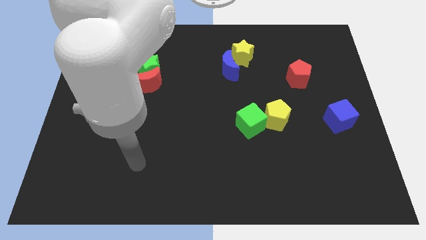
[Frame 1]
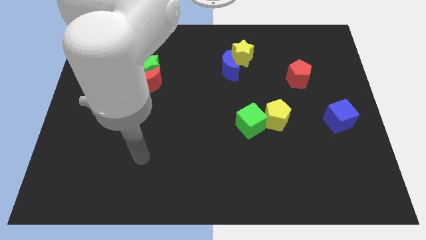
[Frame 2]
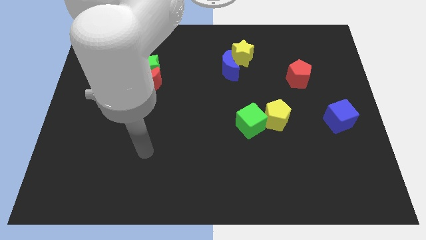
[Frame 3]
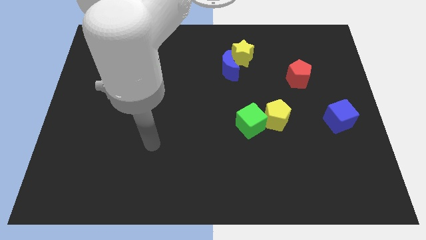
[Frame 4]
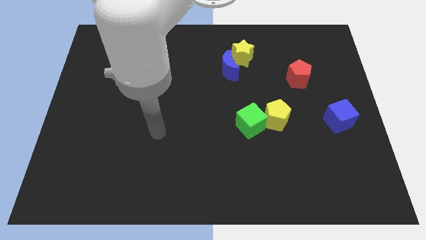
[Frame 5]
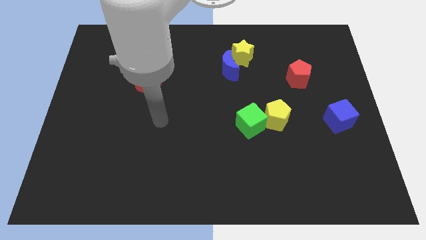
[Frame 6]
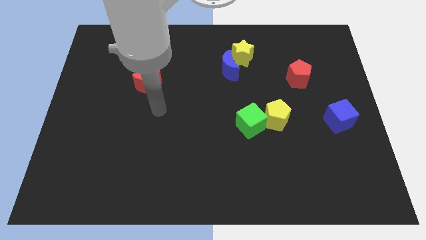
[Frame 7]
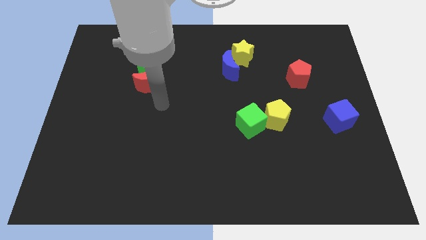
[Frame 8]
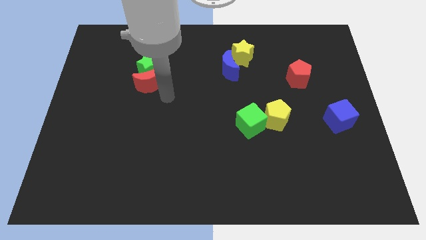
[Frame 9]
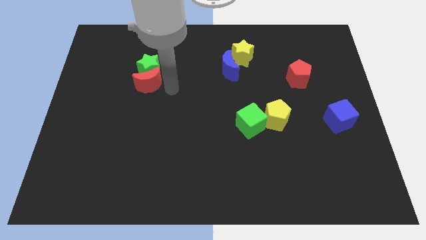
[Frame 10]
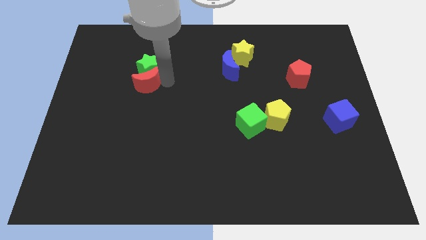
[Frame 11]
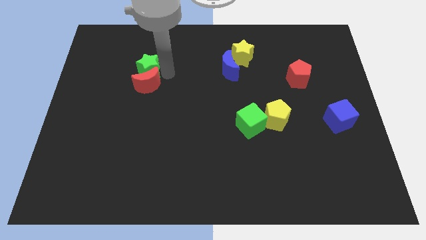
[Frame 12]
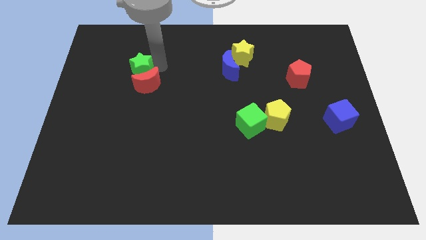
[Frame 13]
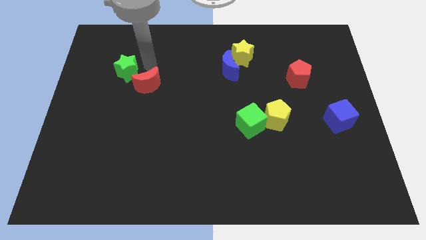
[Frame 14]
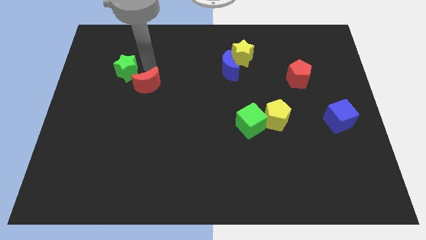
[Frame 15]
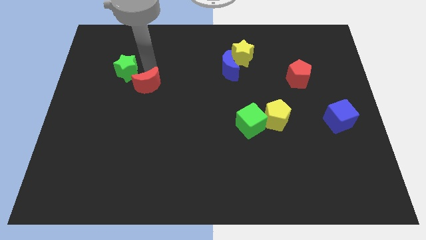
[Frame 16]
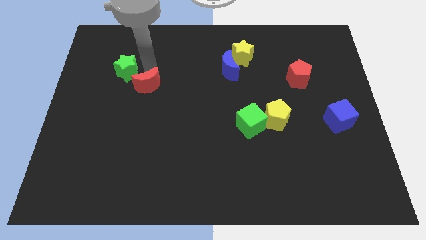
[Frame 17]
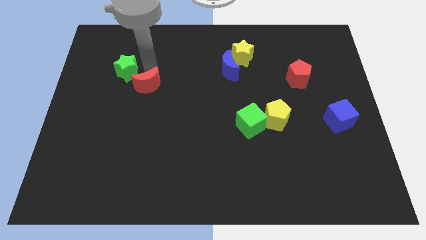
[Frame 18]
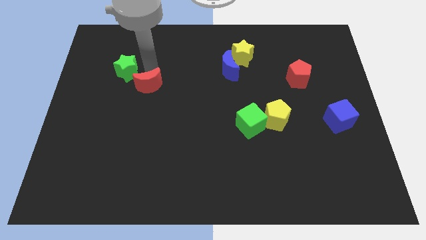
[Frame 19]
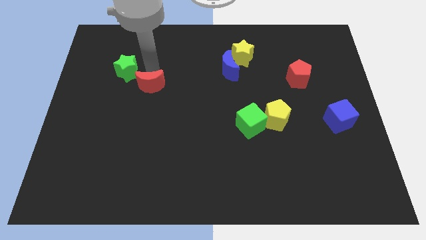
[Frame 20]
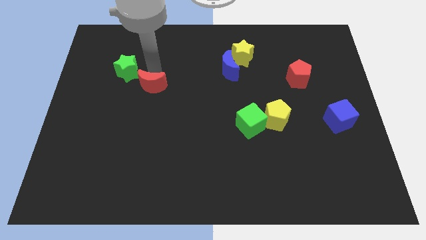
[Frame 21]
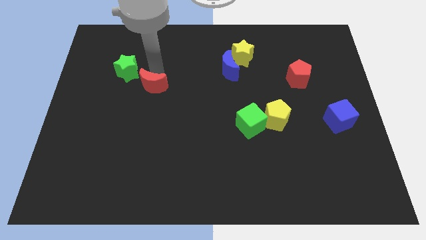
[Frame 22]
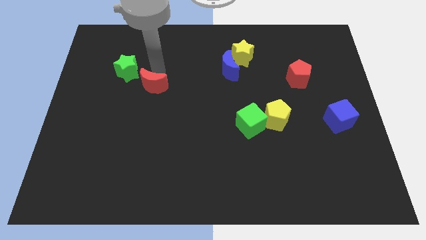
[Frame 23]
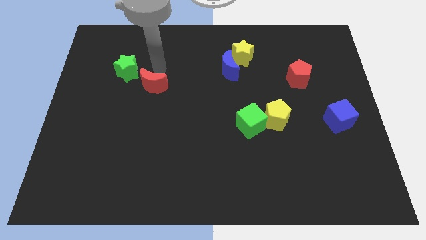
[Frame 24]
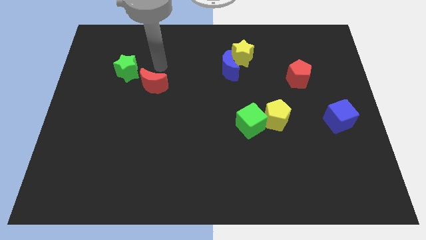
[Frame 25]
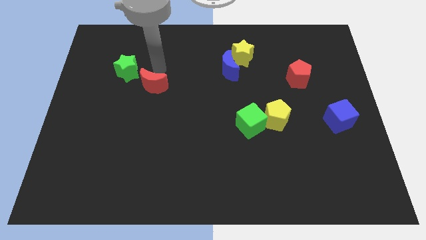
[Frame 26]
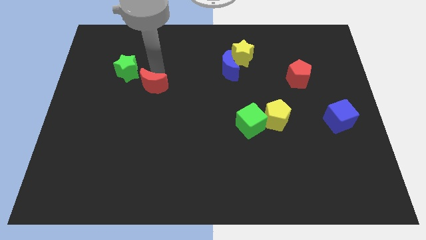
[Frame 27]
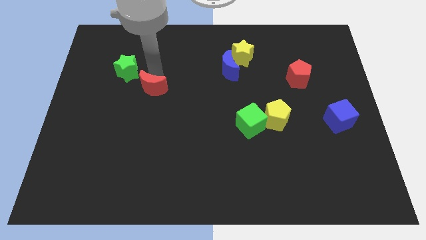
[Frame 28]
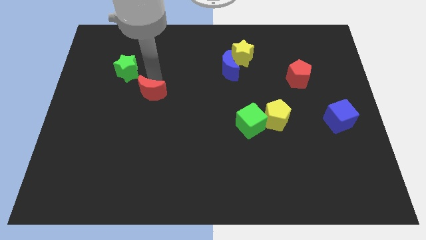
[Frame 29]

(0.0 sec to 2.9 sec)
pull the red moon apart from the green star

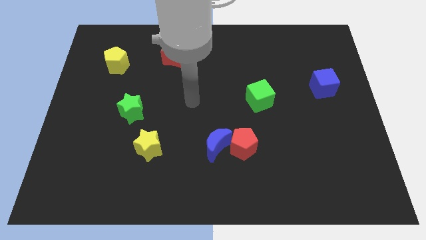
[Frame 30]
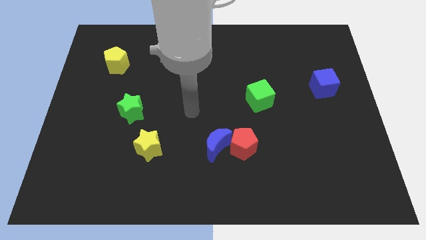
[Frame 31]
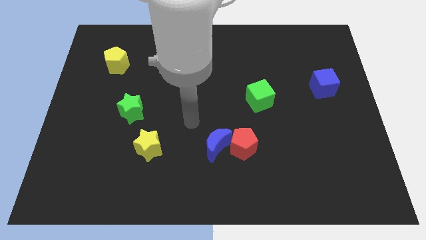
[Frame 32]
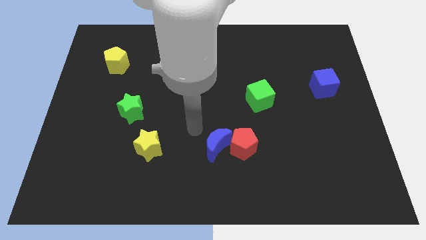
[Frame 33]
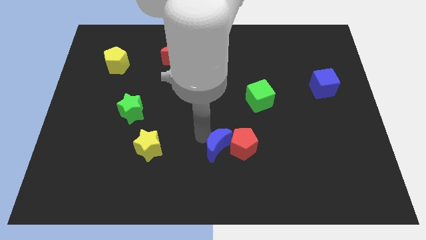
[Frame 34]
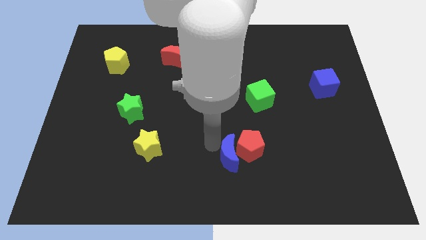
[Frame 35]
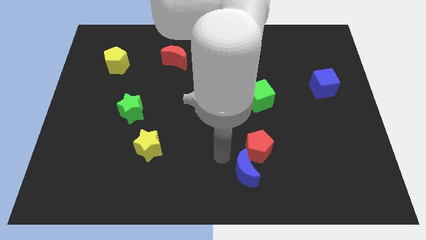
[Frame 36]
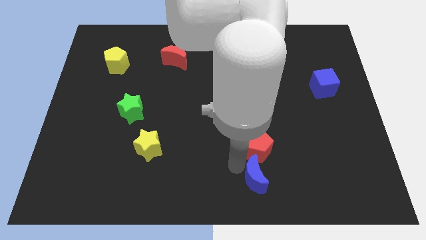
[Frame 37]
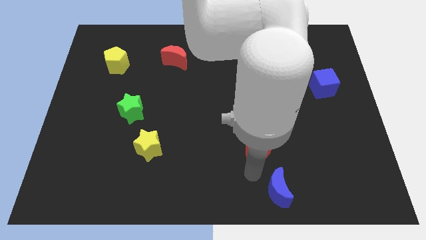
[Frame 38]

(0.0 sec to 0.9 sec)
pull the red pentagon apart from the blue moon

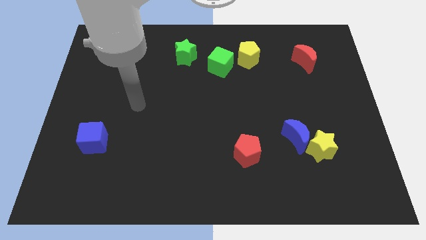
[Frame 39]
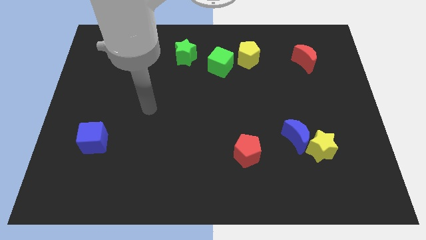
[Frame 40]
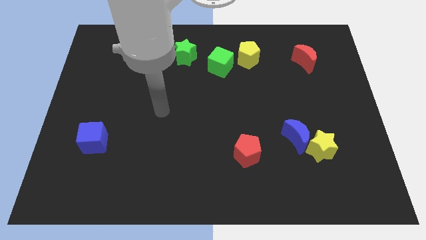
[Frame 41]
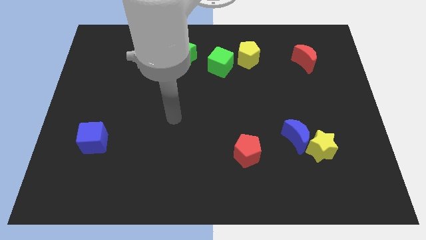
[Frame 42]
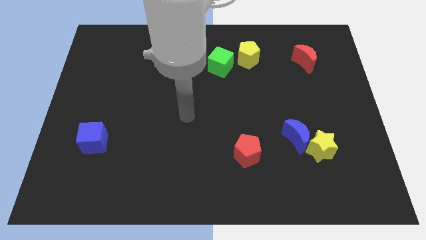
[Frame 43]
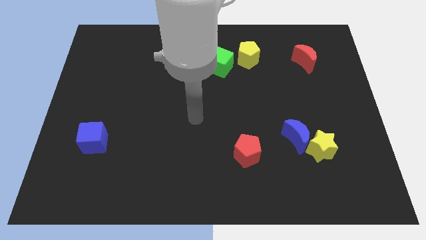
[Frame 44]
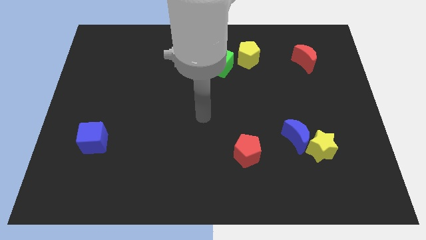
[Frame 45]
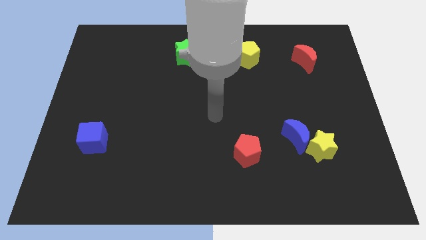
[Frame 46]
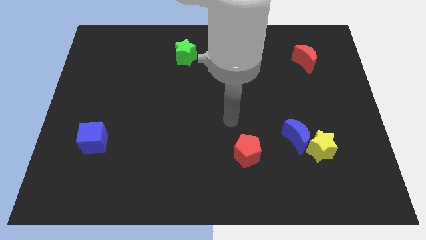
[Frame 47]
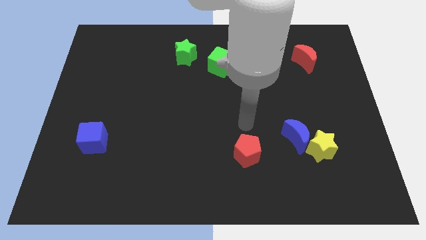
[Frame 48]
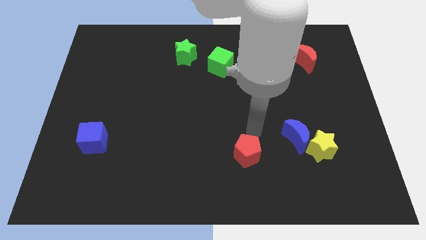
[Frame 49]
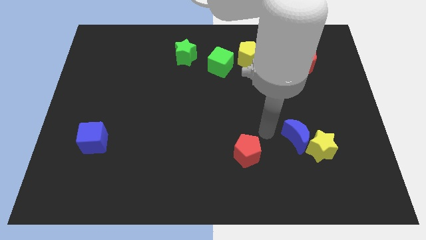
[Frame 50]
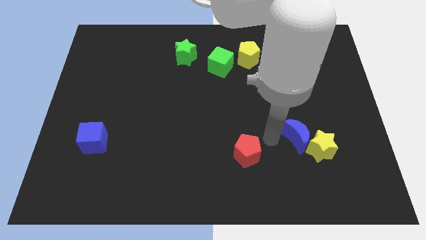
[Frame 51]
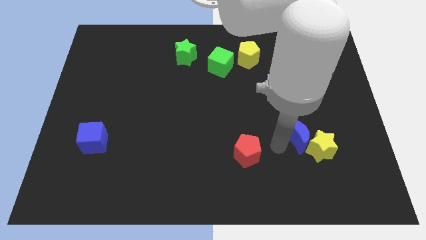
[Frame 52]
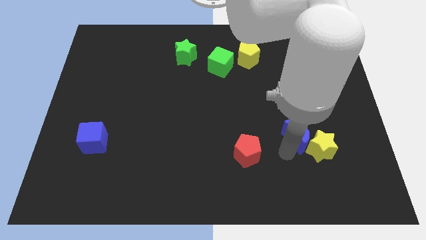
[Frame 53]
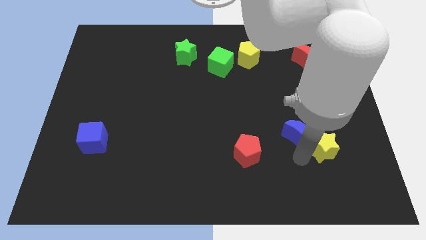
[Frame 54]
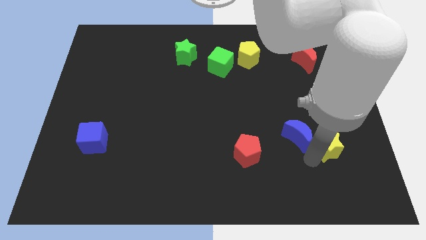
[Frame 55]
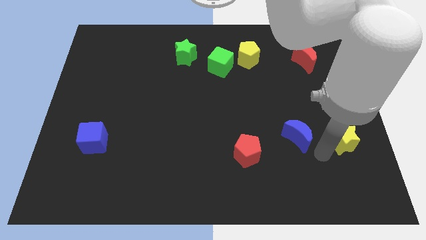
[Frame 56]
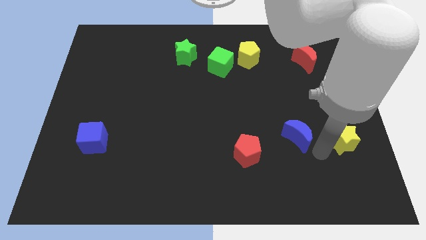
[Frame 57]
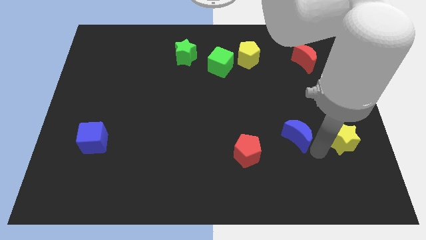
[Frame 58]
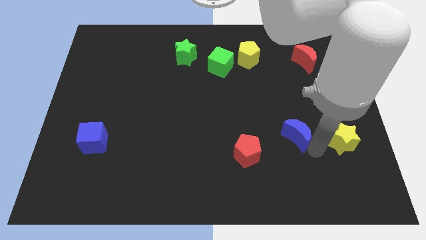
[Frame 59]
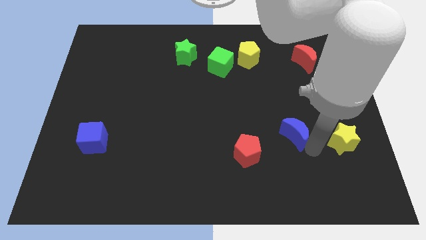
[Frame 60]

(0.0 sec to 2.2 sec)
pull the blue moon apart from the yellow star

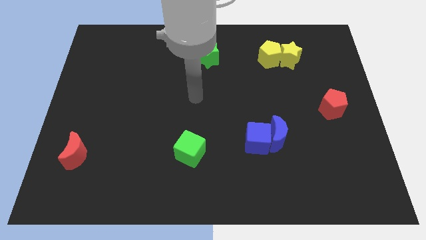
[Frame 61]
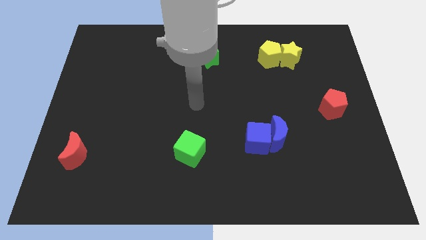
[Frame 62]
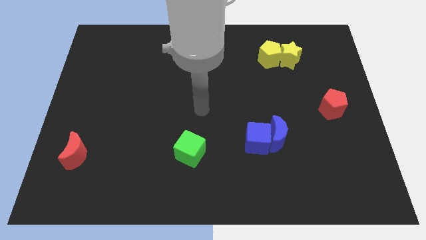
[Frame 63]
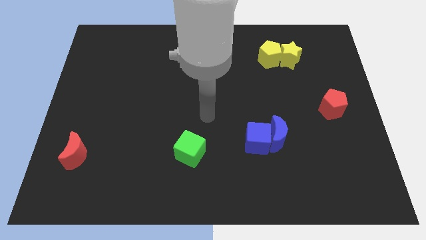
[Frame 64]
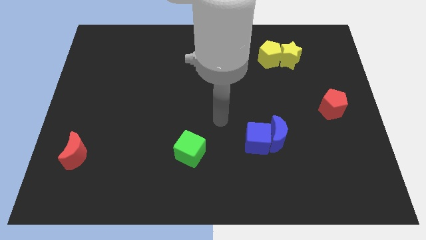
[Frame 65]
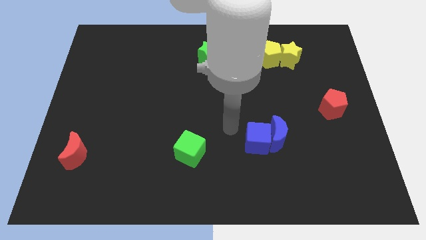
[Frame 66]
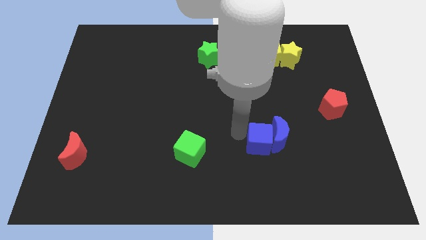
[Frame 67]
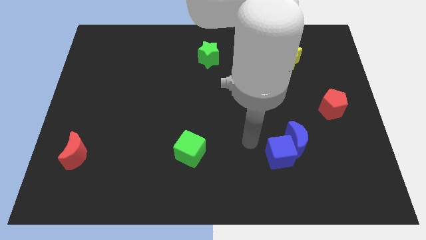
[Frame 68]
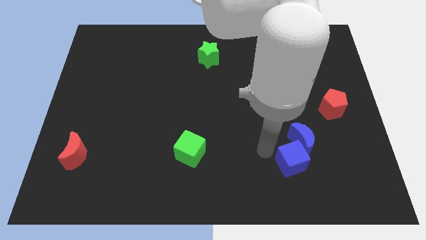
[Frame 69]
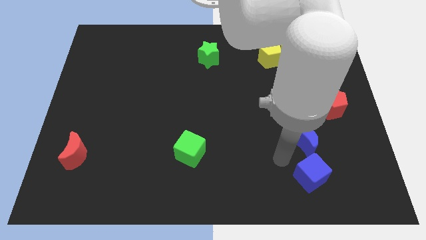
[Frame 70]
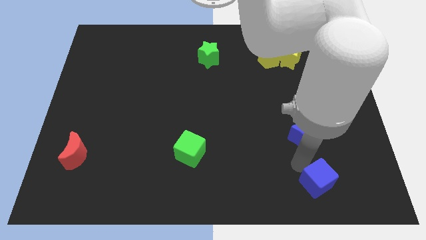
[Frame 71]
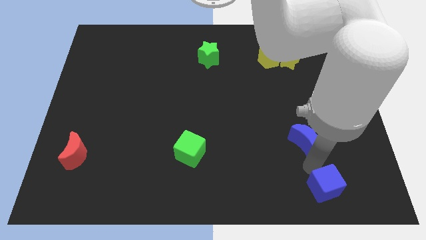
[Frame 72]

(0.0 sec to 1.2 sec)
separate the blue moon from the blue cube

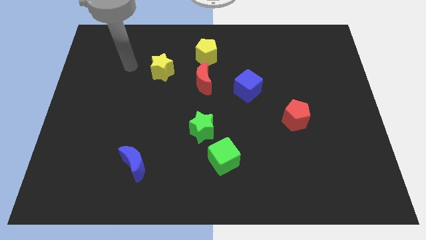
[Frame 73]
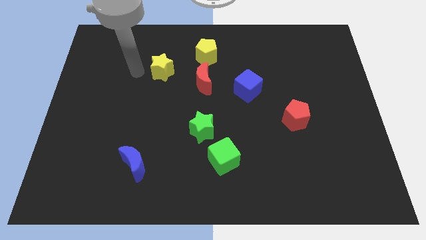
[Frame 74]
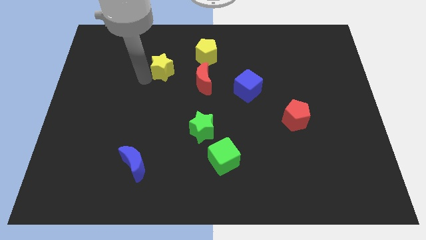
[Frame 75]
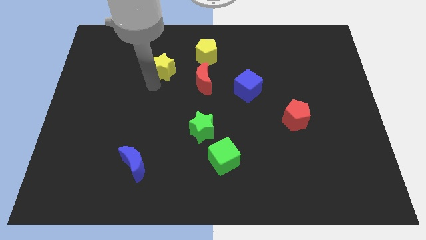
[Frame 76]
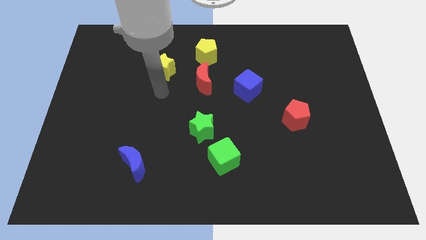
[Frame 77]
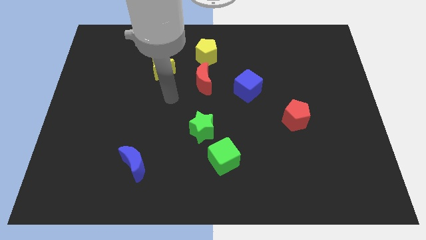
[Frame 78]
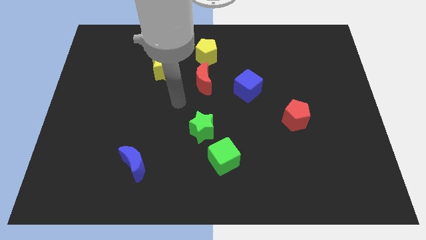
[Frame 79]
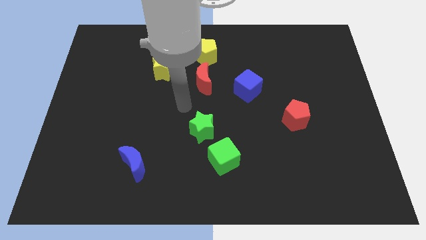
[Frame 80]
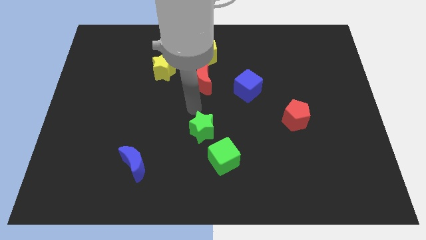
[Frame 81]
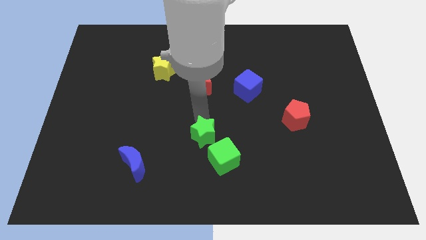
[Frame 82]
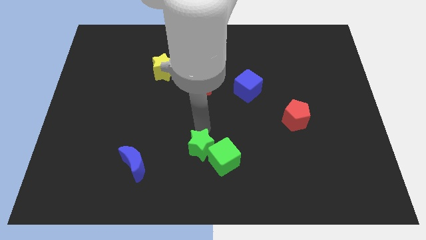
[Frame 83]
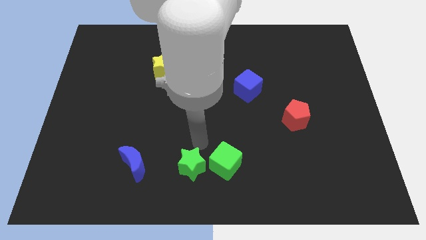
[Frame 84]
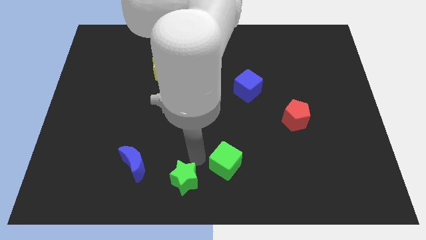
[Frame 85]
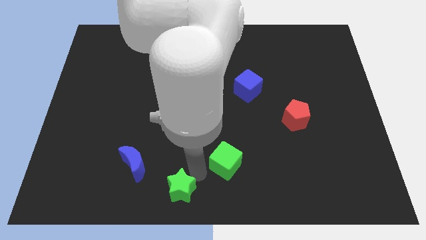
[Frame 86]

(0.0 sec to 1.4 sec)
move the green cube away from the green star

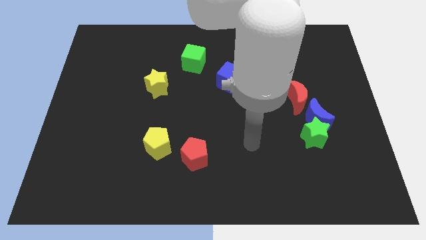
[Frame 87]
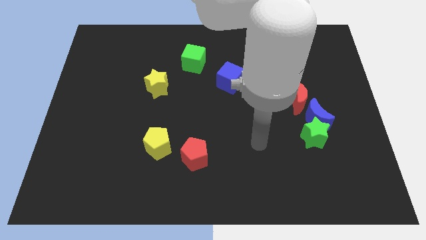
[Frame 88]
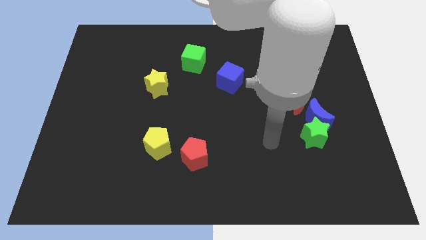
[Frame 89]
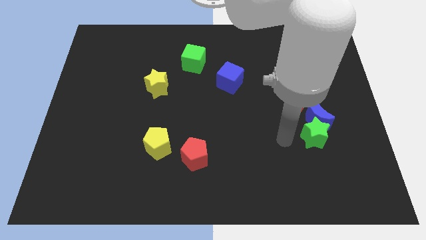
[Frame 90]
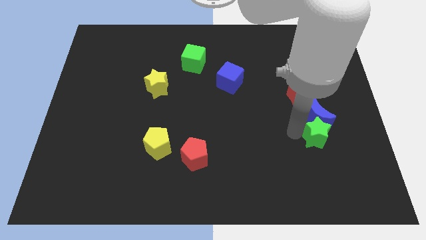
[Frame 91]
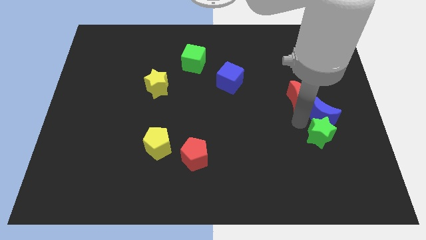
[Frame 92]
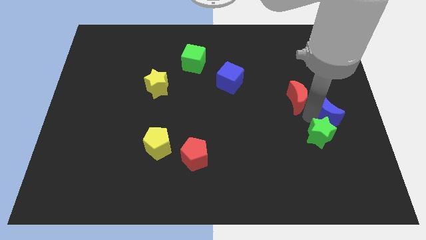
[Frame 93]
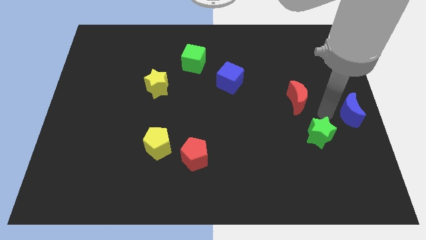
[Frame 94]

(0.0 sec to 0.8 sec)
pull the green star apart from the blue moon
